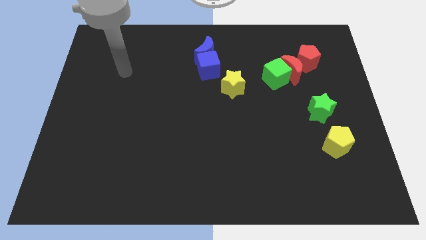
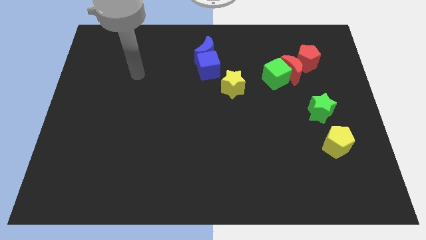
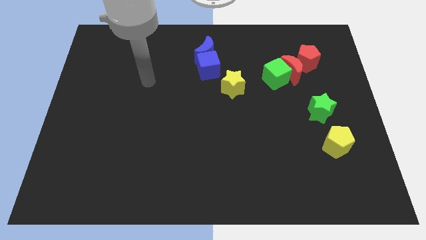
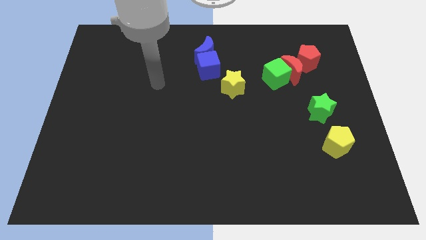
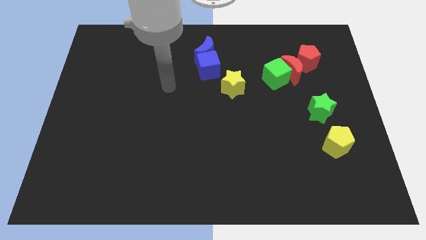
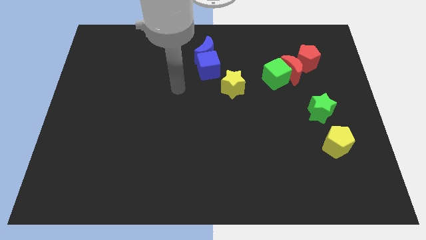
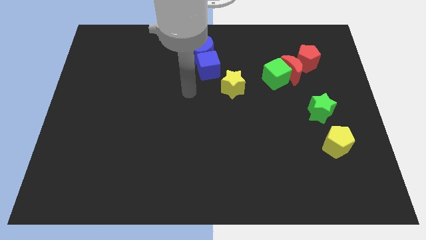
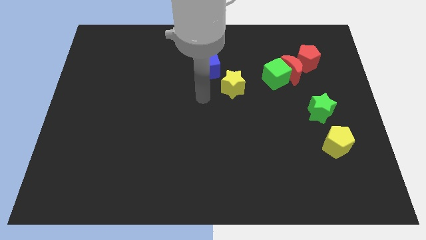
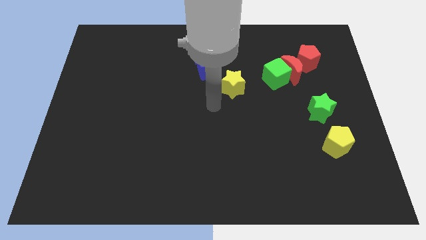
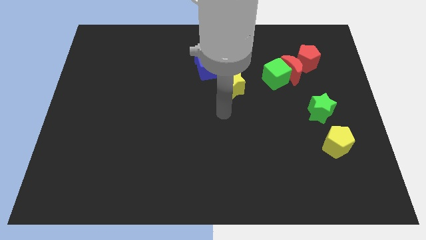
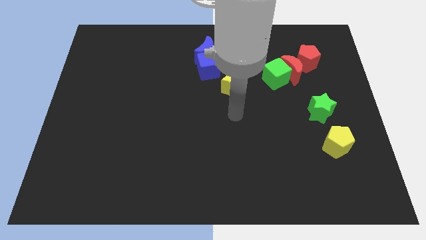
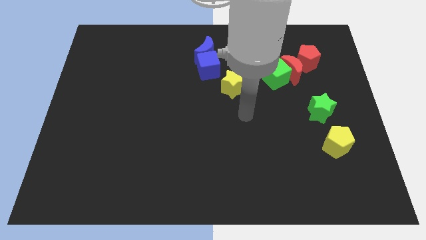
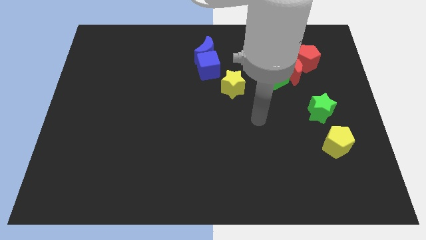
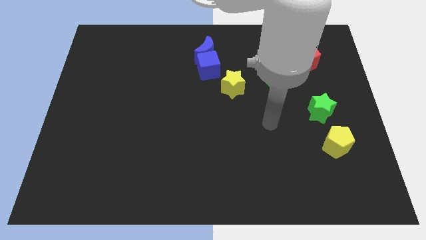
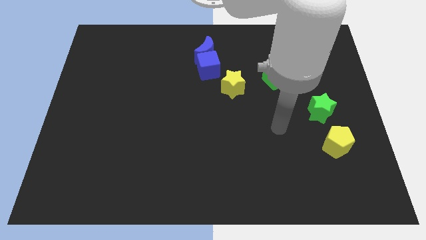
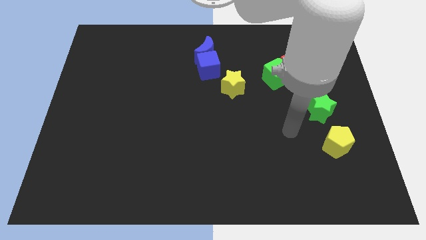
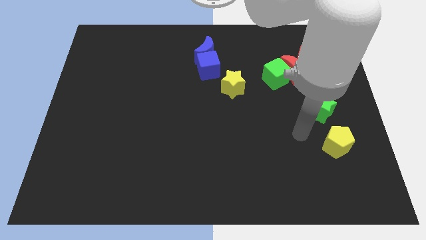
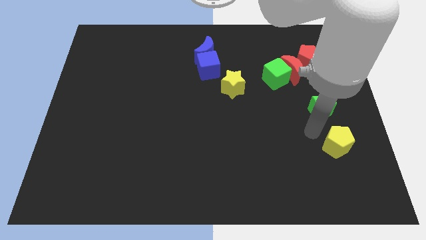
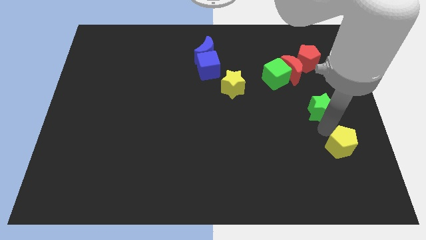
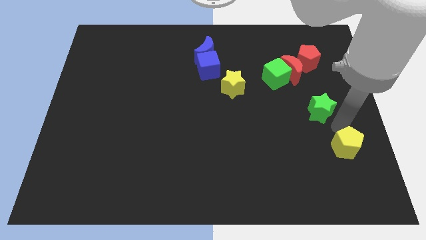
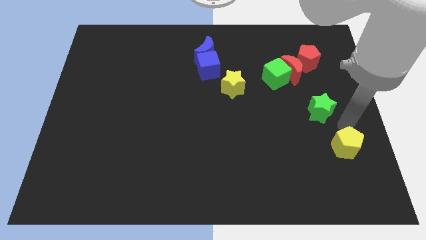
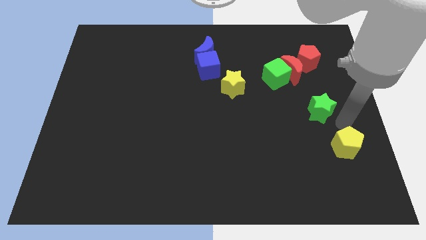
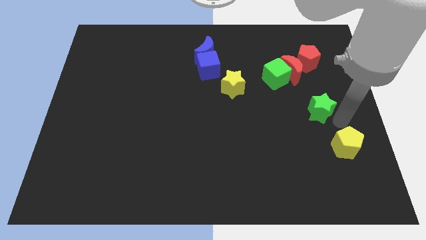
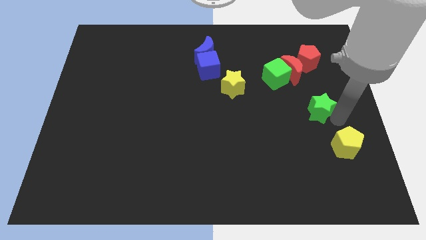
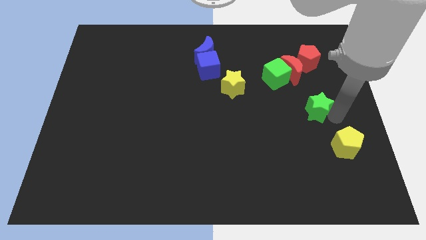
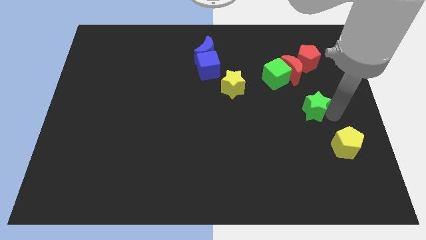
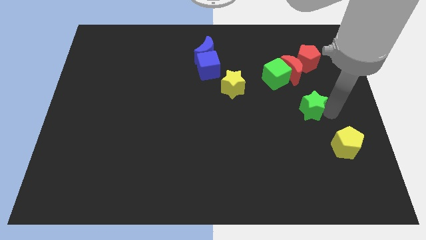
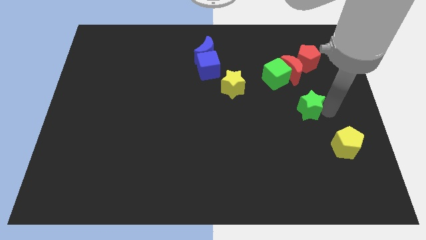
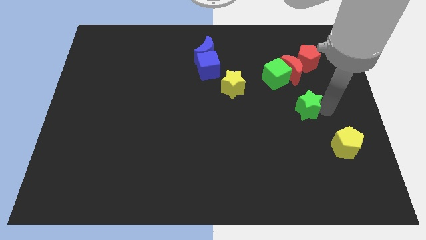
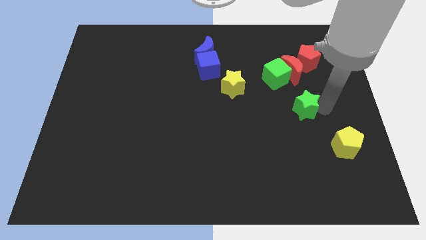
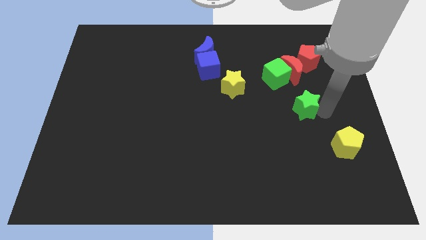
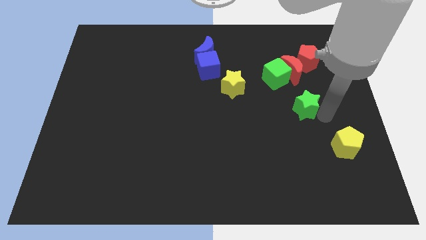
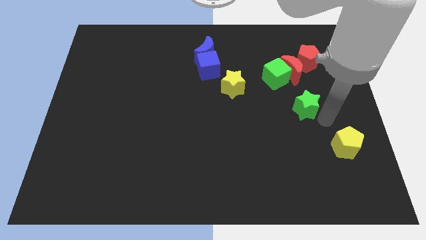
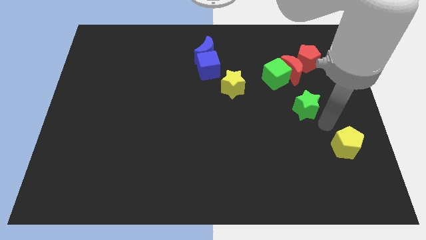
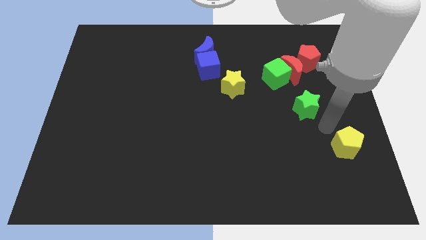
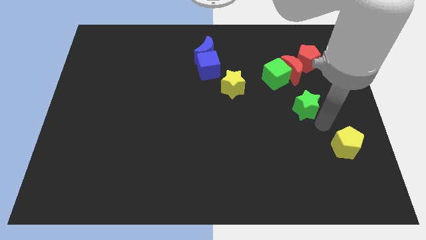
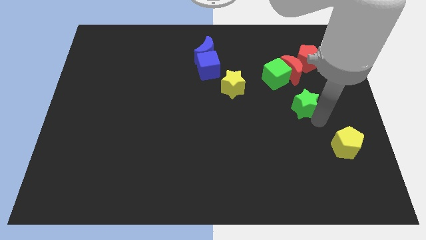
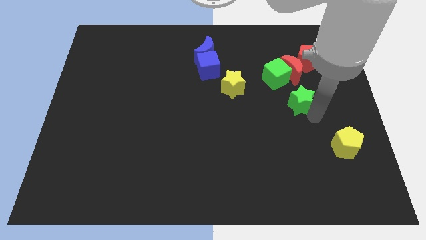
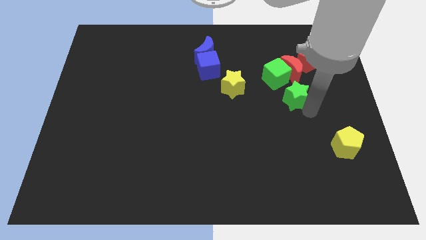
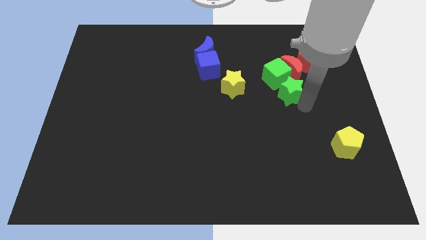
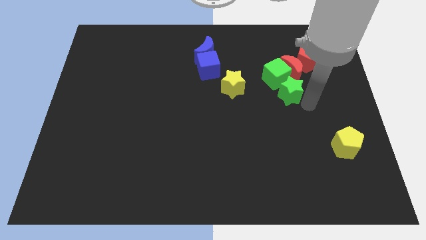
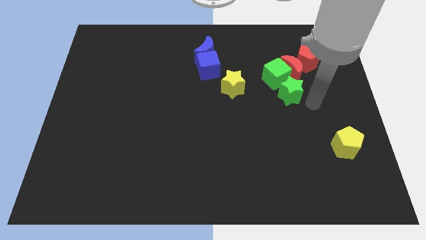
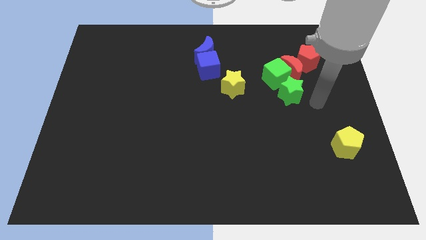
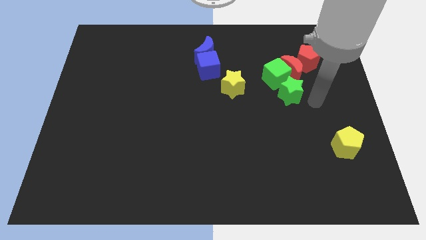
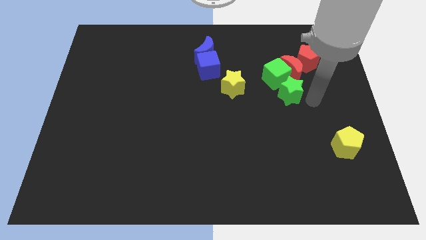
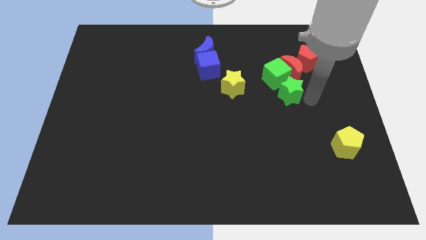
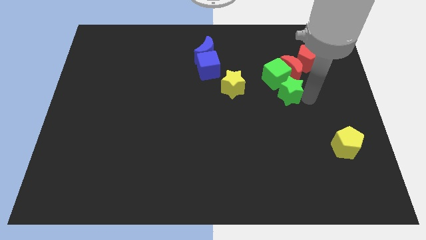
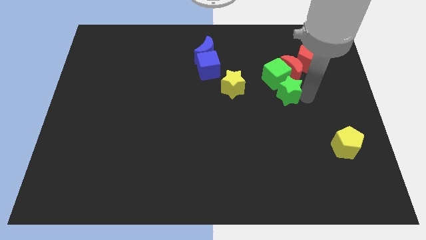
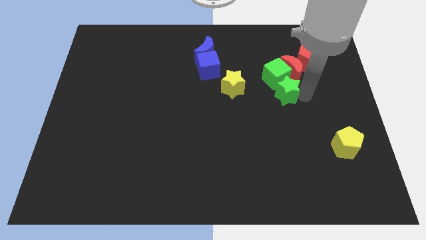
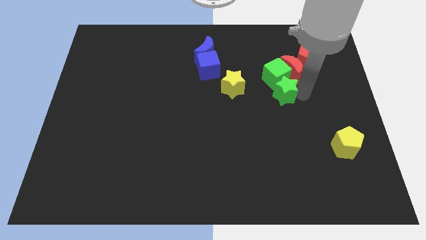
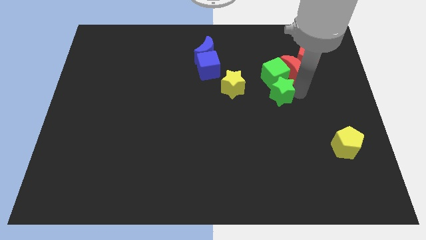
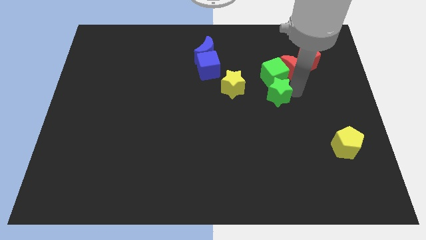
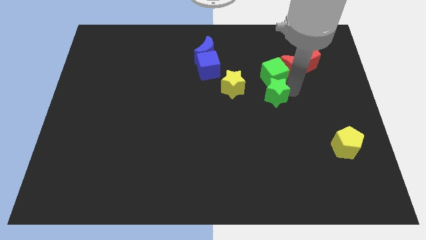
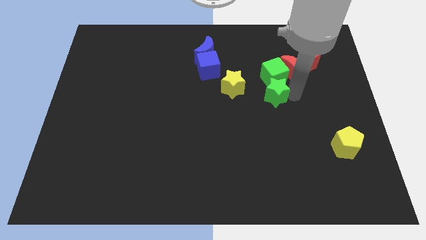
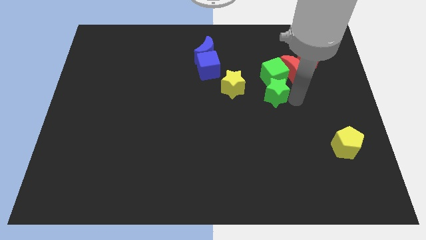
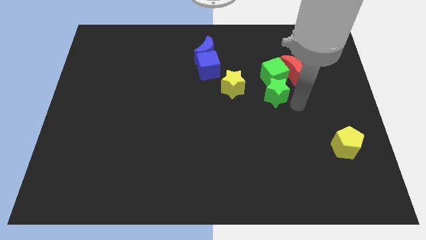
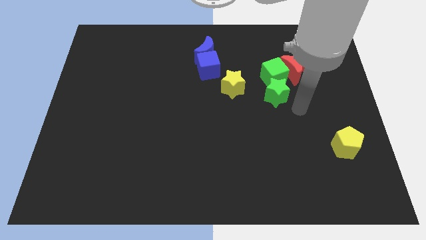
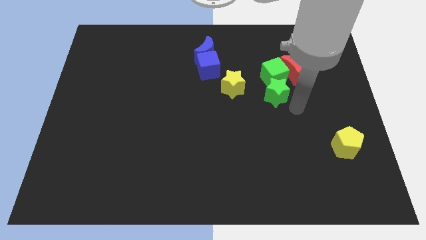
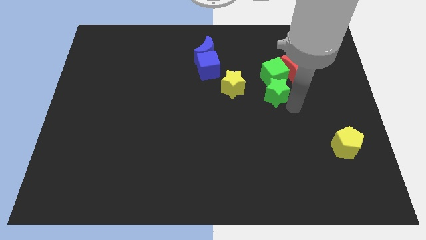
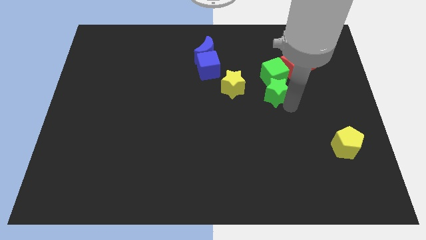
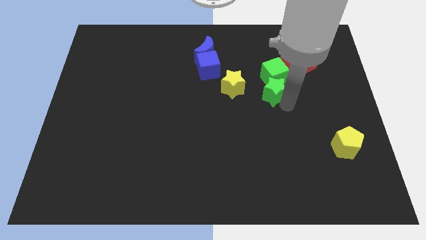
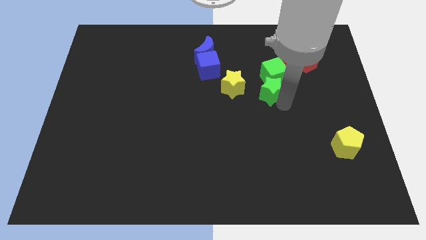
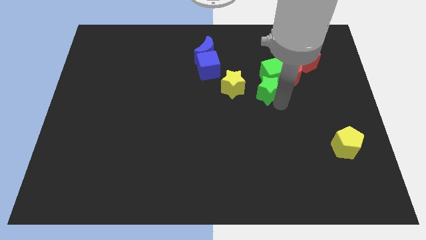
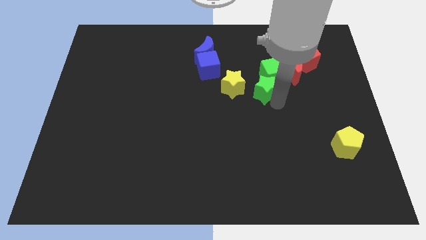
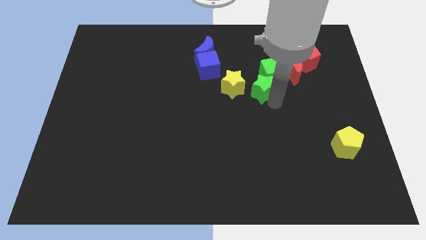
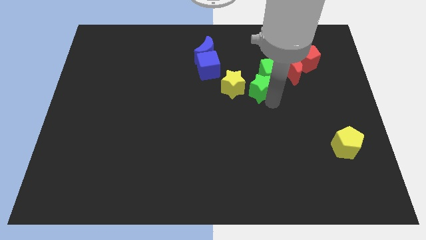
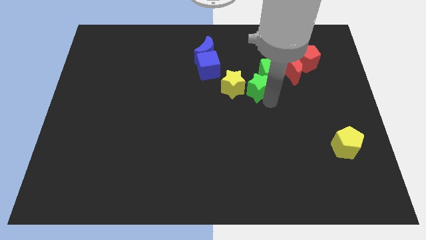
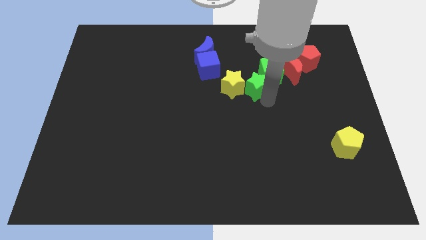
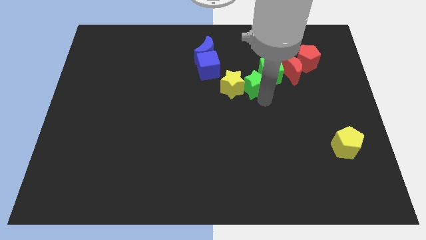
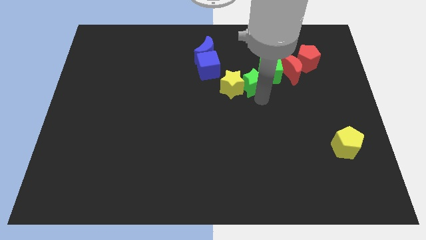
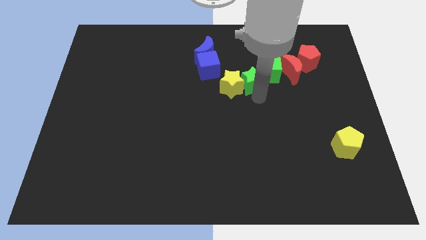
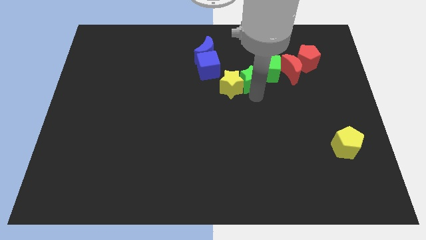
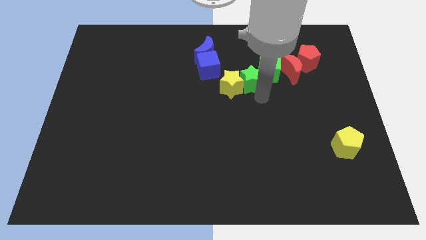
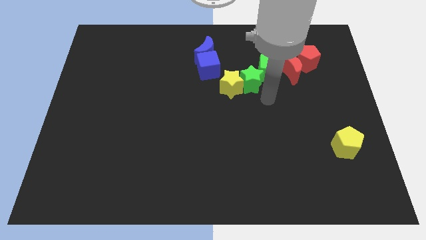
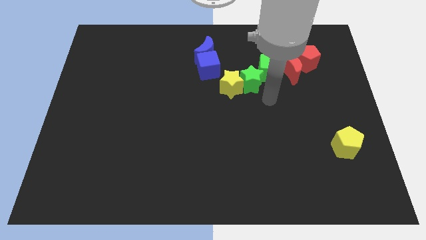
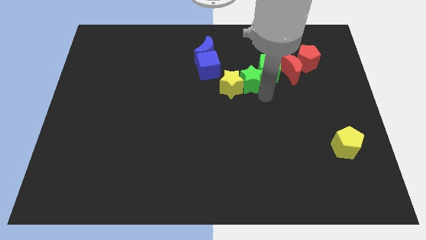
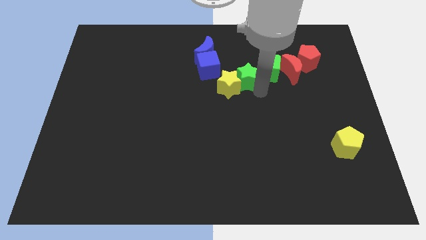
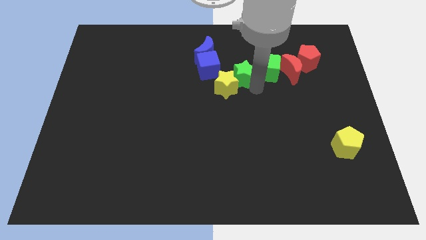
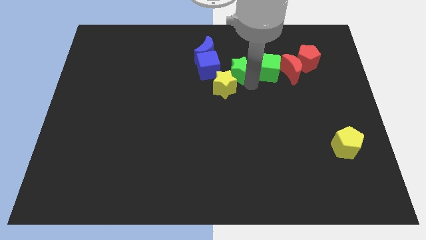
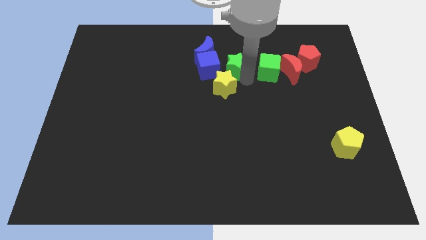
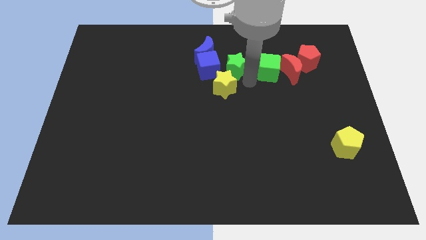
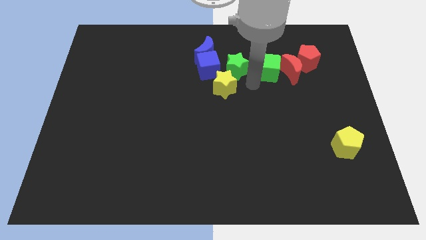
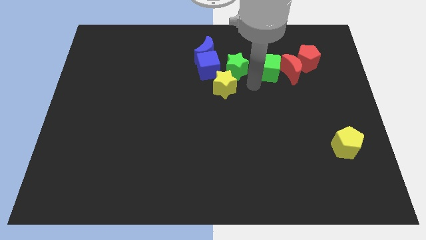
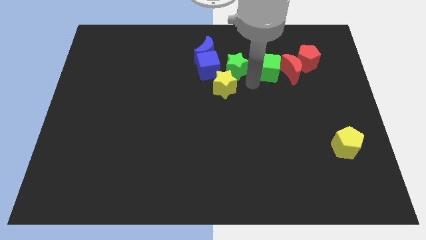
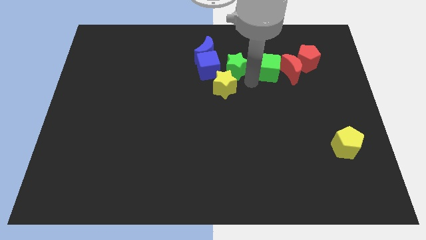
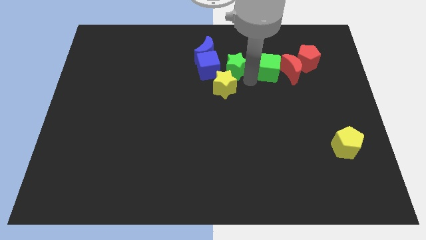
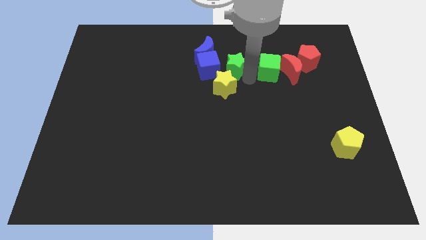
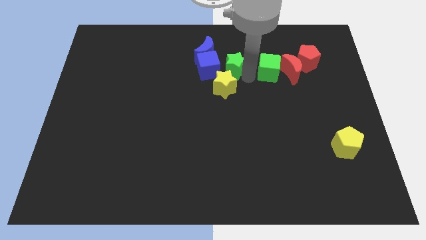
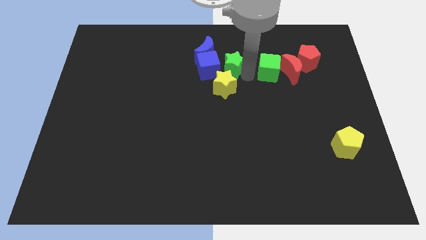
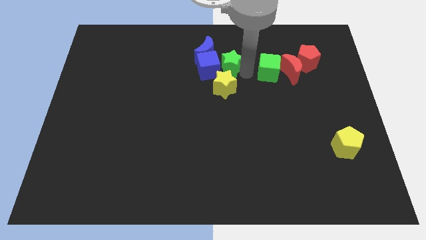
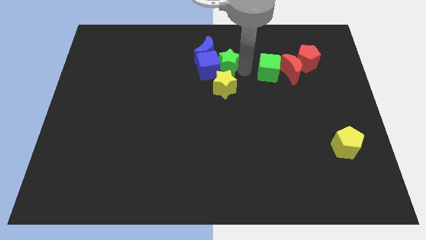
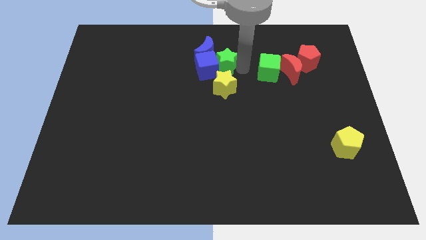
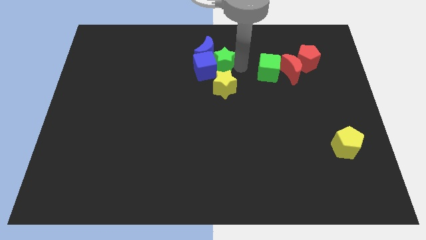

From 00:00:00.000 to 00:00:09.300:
slide the green star next to the blue moon
